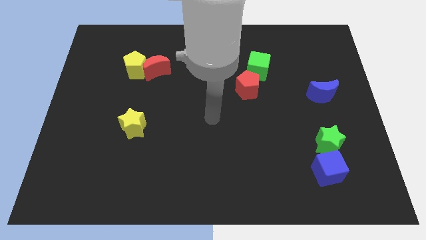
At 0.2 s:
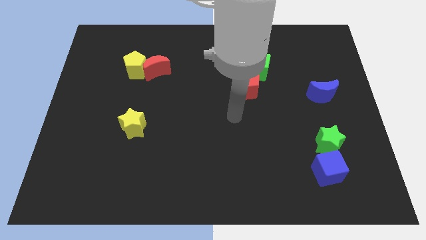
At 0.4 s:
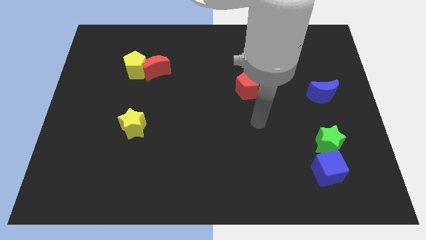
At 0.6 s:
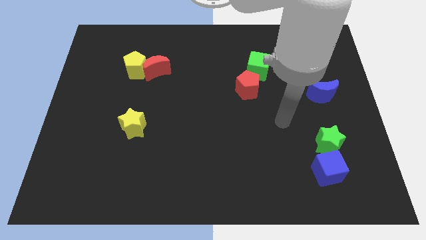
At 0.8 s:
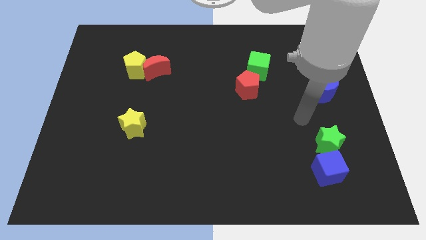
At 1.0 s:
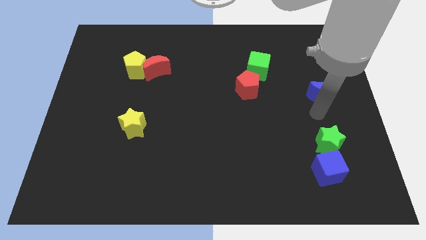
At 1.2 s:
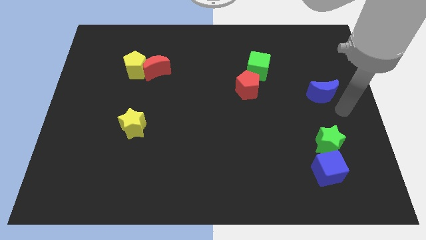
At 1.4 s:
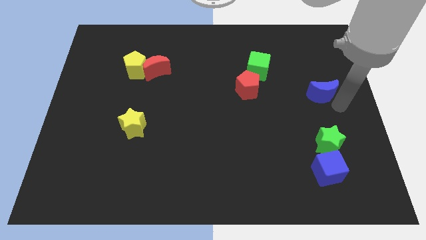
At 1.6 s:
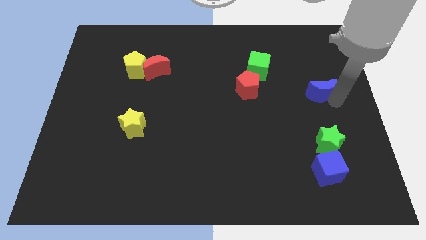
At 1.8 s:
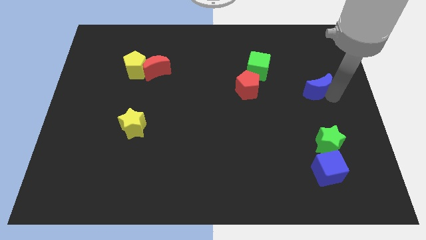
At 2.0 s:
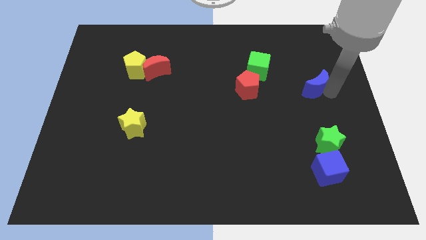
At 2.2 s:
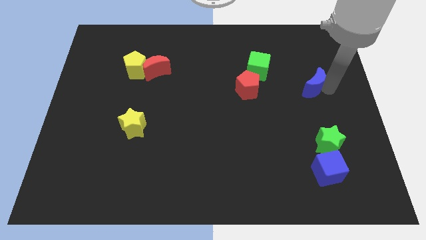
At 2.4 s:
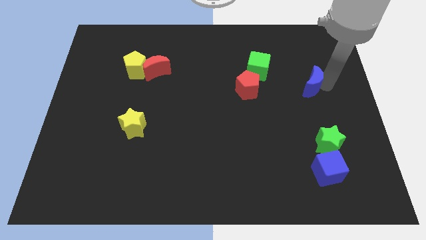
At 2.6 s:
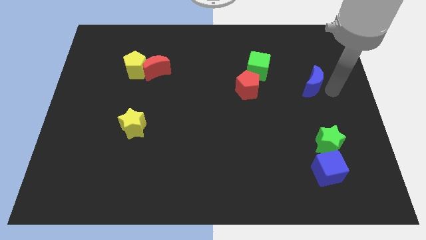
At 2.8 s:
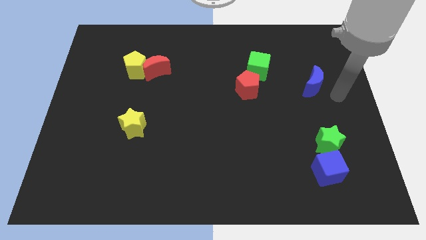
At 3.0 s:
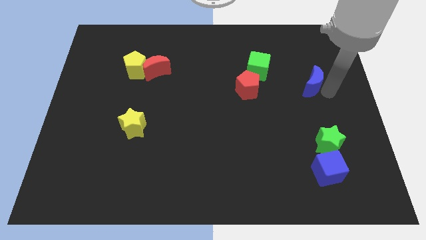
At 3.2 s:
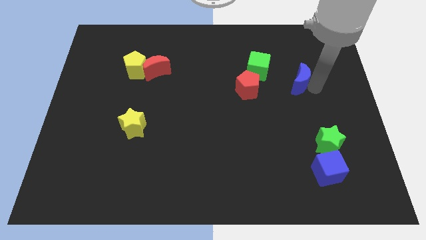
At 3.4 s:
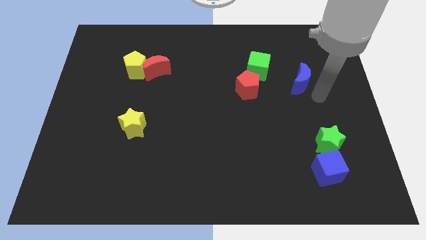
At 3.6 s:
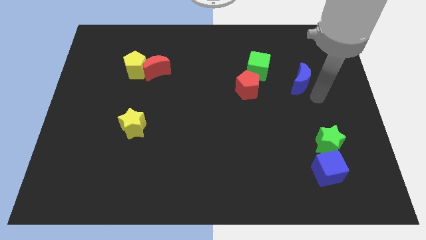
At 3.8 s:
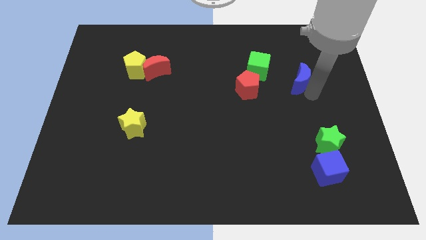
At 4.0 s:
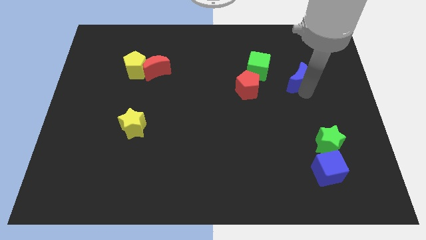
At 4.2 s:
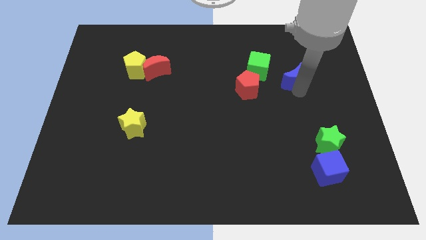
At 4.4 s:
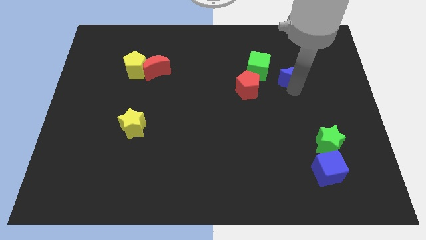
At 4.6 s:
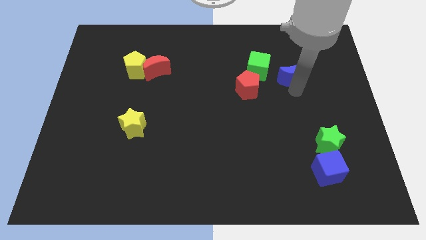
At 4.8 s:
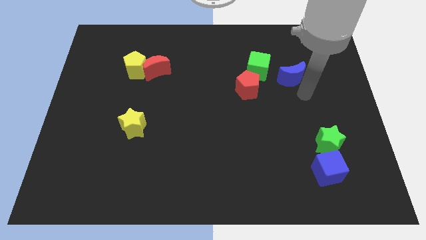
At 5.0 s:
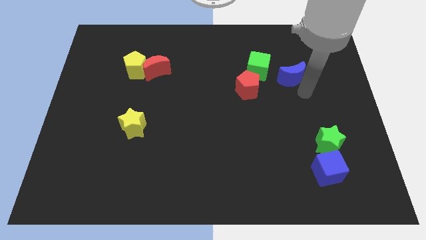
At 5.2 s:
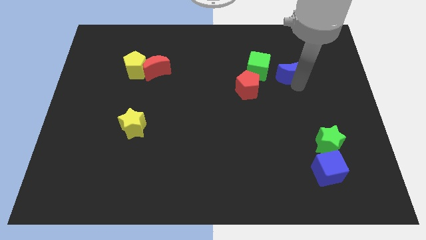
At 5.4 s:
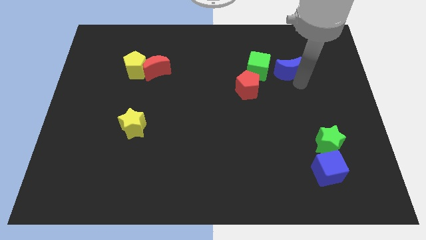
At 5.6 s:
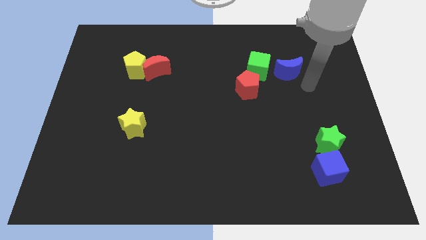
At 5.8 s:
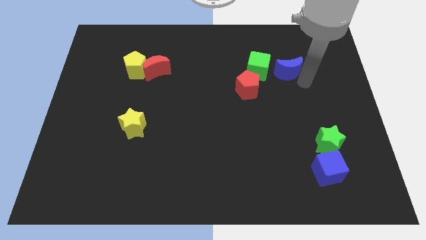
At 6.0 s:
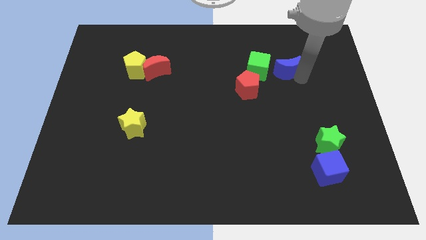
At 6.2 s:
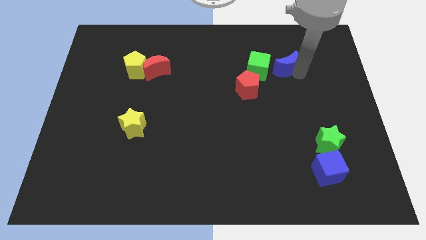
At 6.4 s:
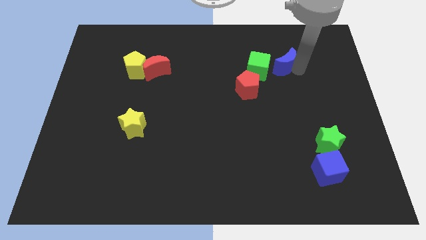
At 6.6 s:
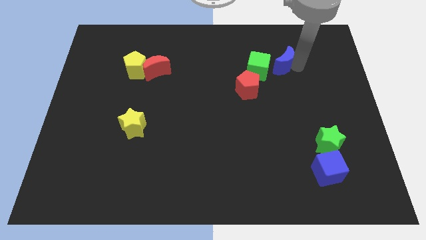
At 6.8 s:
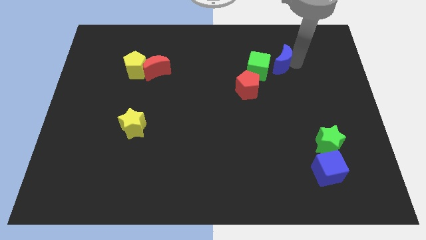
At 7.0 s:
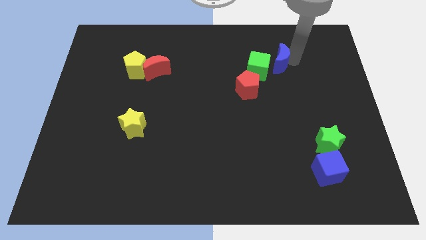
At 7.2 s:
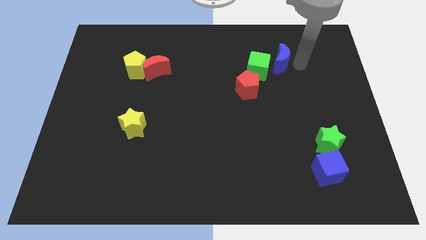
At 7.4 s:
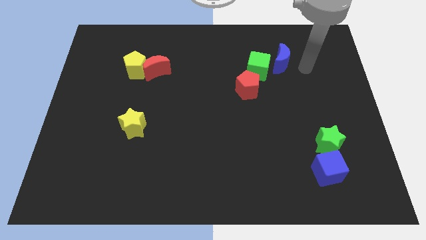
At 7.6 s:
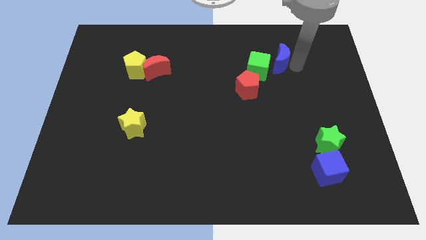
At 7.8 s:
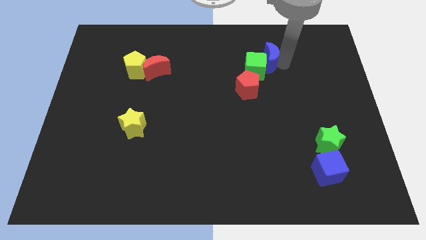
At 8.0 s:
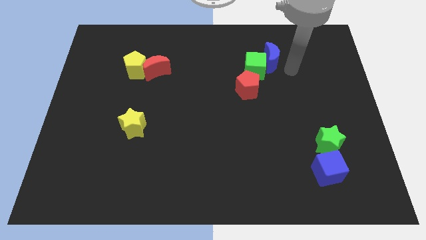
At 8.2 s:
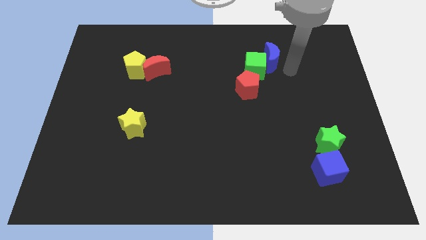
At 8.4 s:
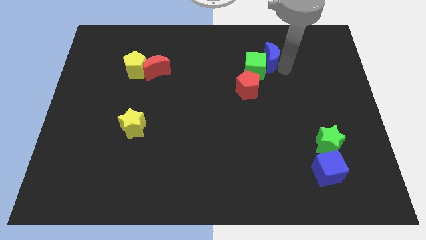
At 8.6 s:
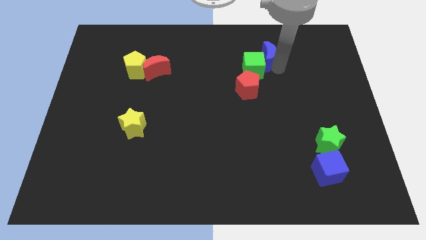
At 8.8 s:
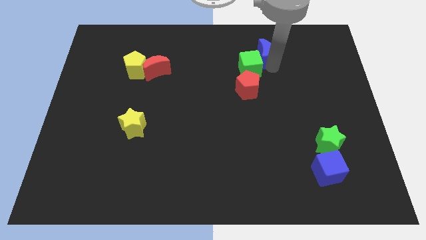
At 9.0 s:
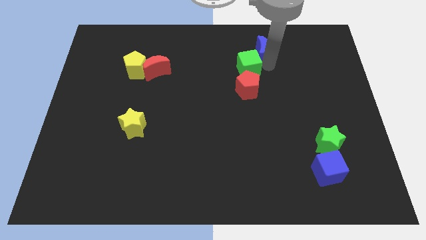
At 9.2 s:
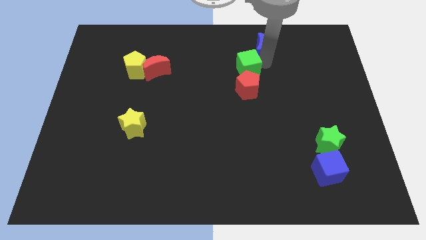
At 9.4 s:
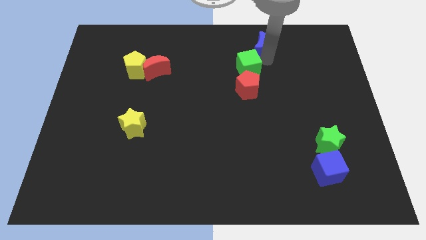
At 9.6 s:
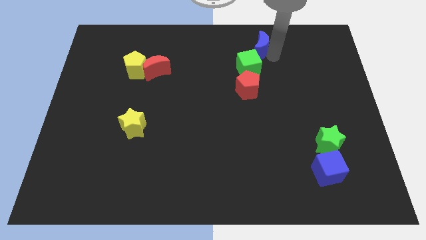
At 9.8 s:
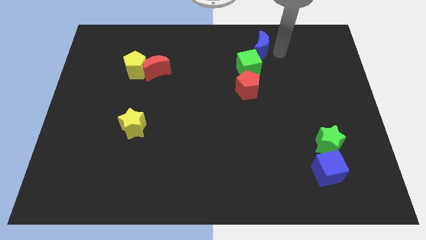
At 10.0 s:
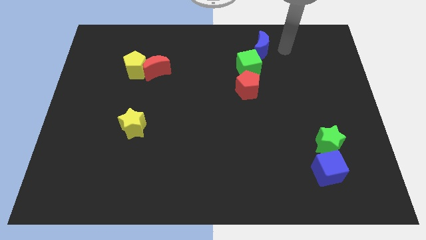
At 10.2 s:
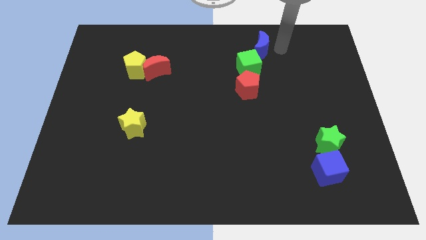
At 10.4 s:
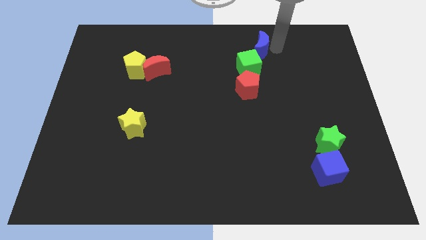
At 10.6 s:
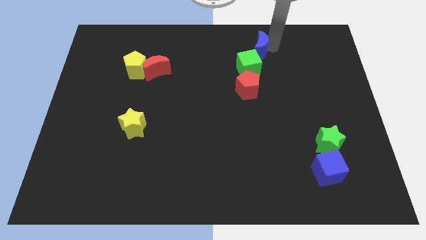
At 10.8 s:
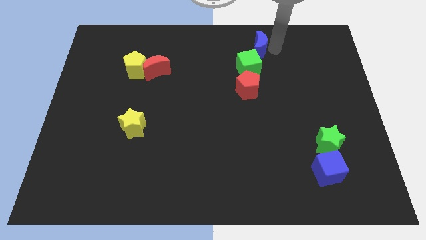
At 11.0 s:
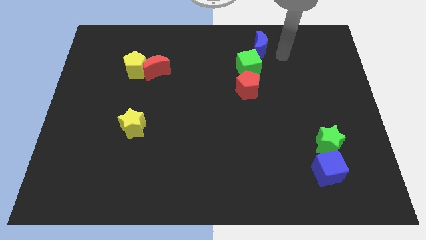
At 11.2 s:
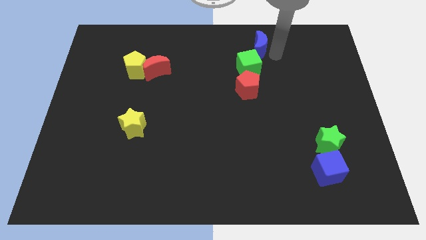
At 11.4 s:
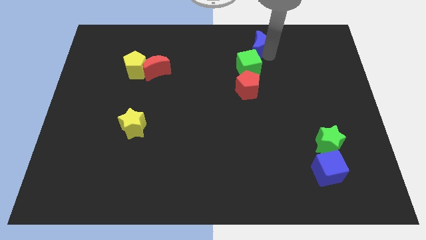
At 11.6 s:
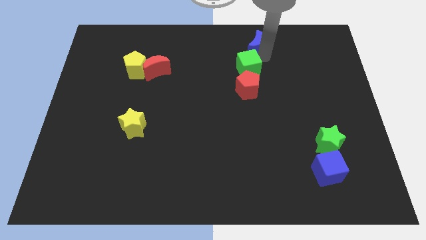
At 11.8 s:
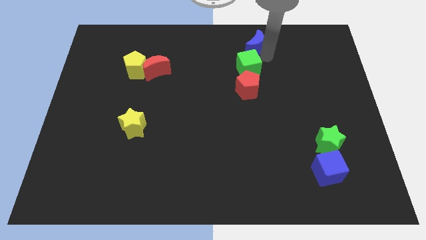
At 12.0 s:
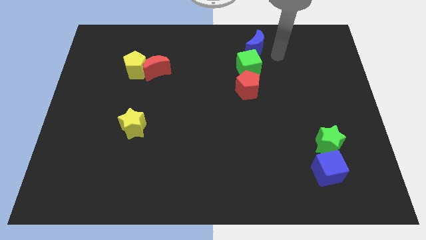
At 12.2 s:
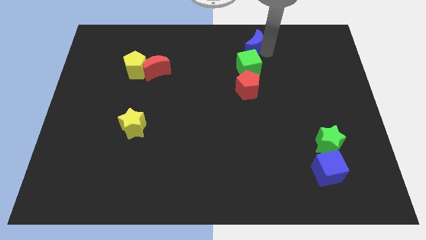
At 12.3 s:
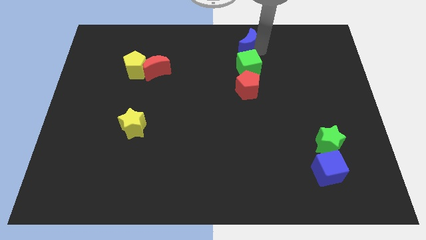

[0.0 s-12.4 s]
push the blue moon to the towards your base

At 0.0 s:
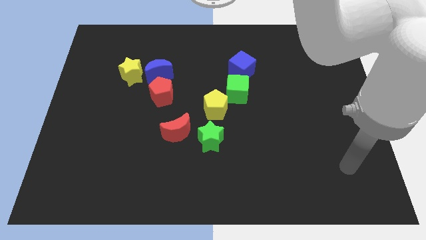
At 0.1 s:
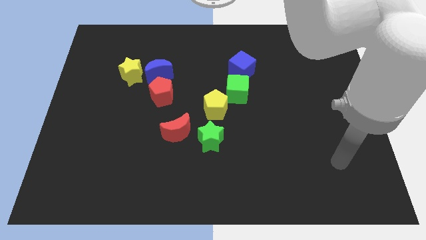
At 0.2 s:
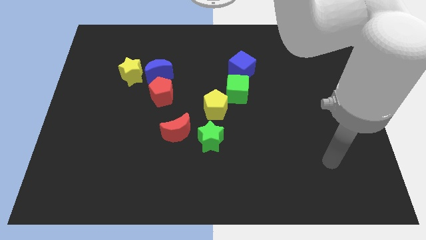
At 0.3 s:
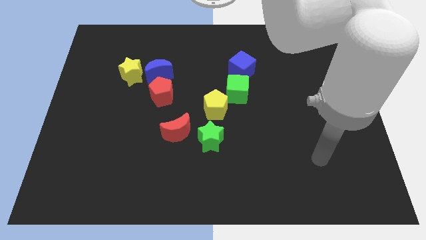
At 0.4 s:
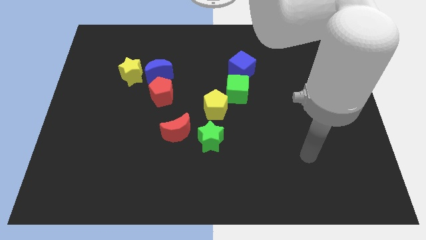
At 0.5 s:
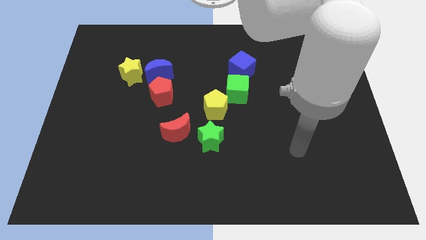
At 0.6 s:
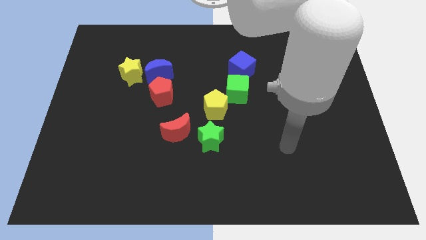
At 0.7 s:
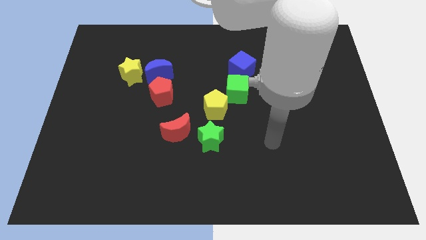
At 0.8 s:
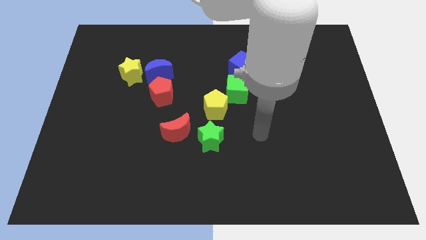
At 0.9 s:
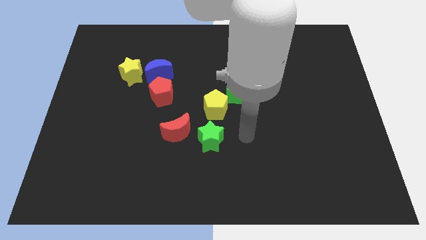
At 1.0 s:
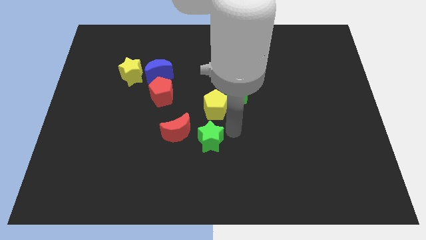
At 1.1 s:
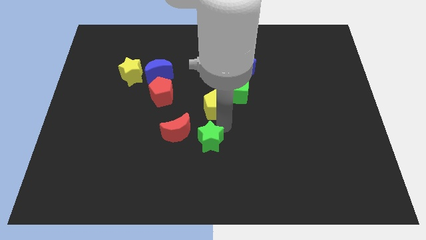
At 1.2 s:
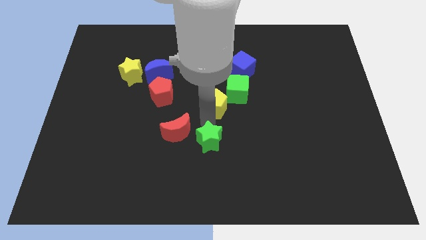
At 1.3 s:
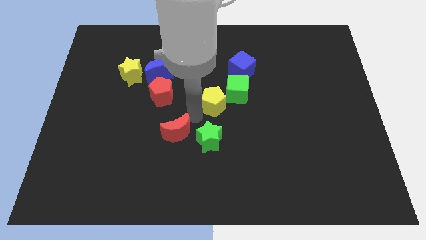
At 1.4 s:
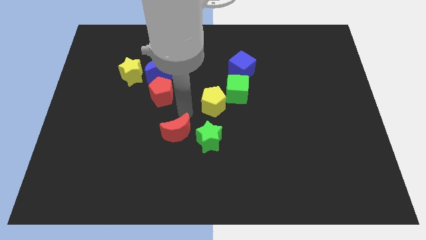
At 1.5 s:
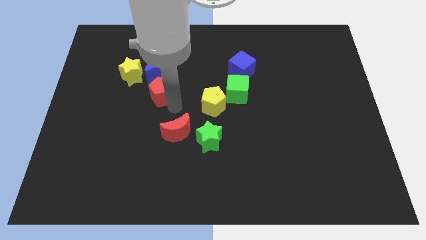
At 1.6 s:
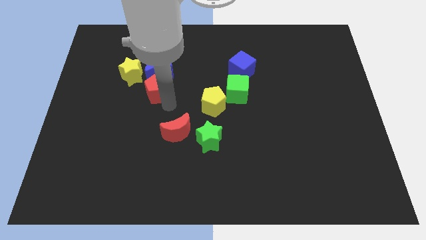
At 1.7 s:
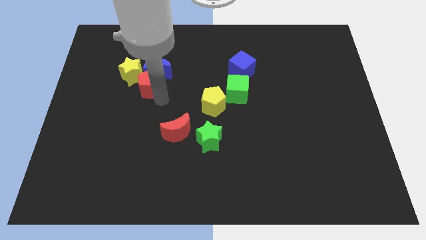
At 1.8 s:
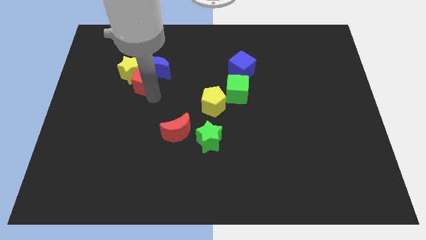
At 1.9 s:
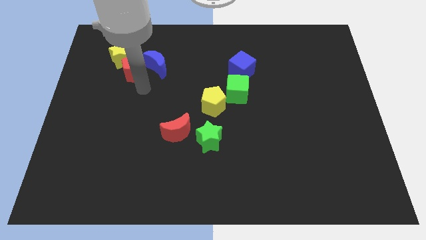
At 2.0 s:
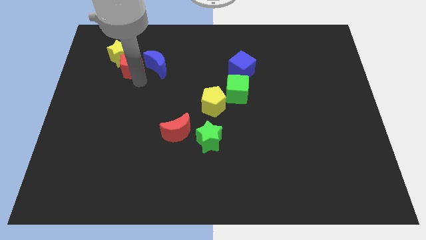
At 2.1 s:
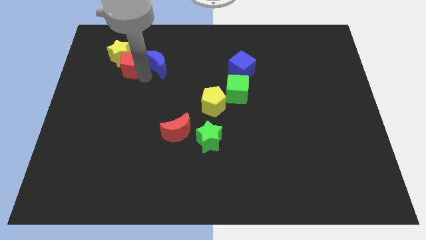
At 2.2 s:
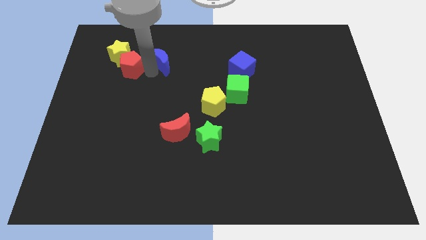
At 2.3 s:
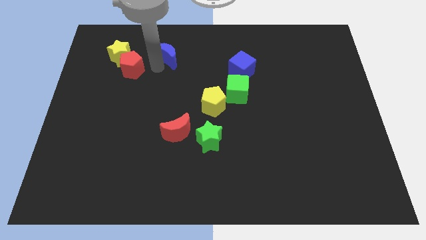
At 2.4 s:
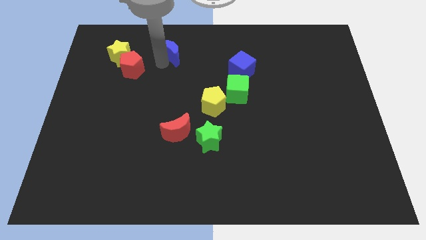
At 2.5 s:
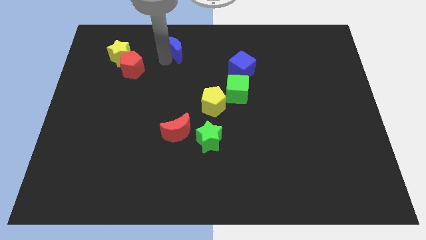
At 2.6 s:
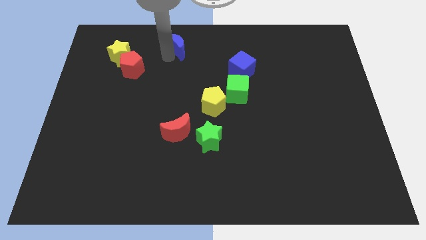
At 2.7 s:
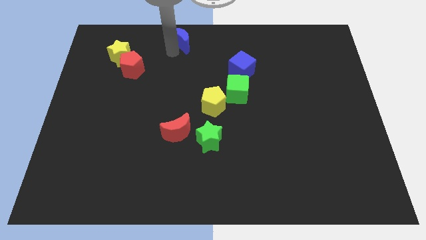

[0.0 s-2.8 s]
put the blue moon to the towards your base
